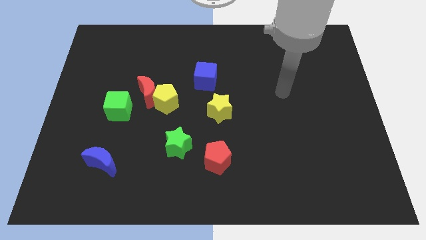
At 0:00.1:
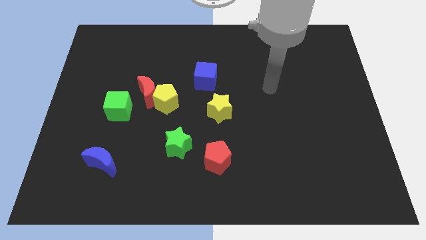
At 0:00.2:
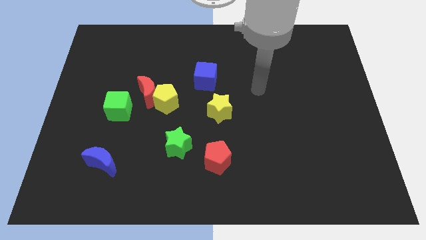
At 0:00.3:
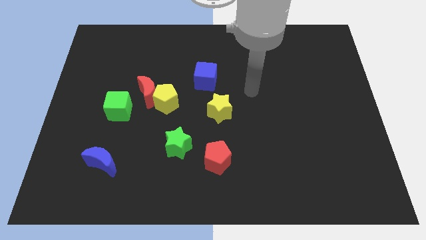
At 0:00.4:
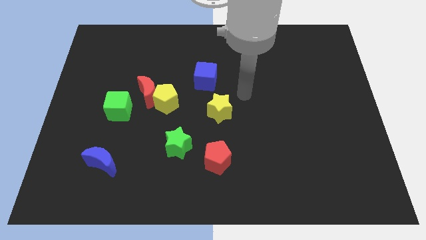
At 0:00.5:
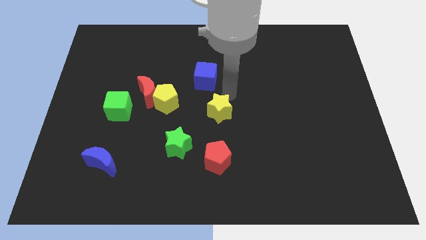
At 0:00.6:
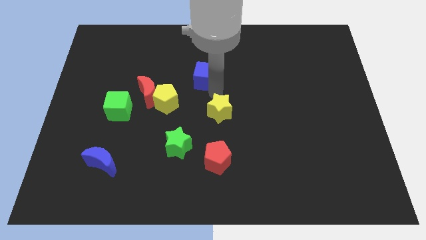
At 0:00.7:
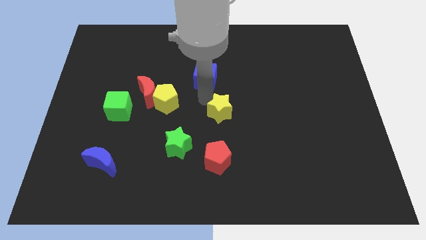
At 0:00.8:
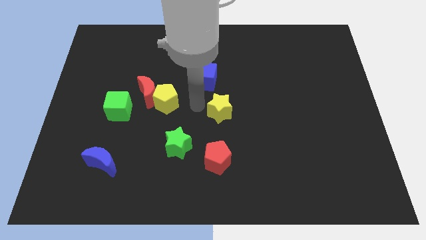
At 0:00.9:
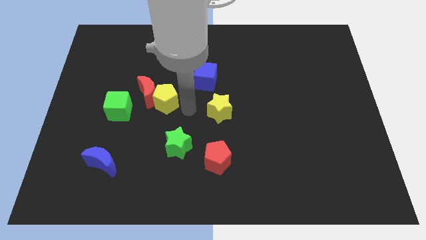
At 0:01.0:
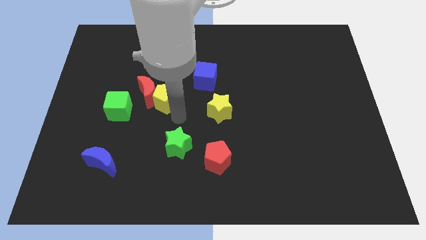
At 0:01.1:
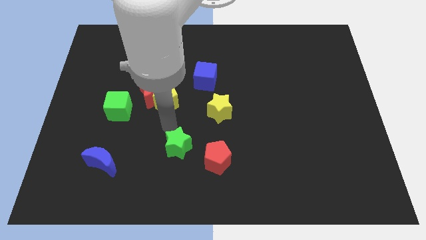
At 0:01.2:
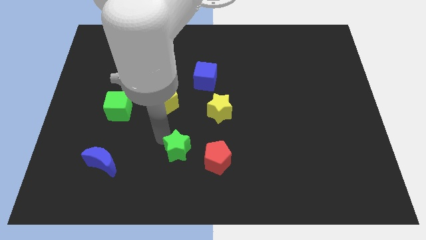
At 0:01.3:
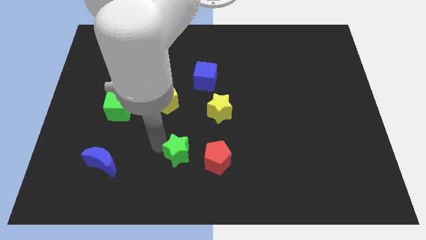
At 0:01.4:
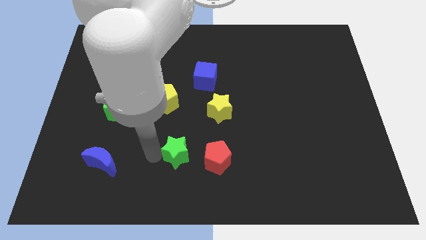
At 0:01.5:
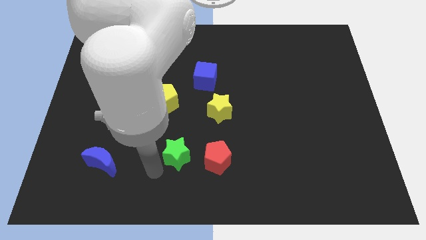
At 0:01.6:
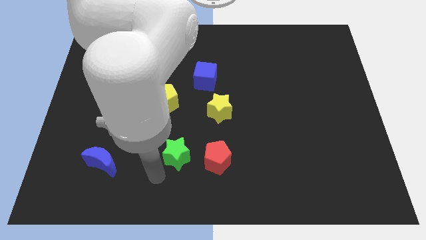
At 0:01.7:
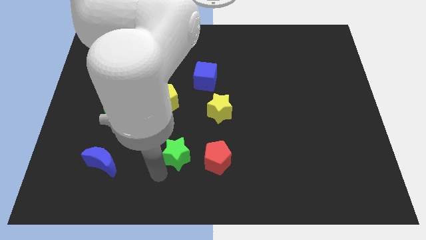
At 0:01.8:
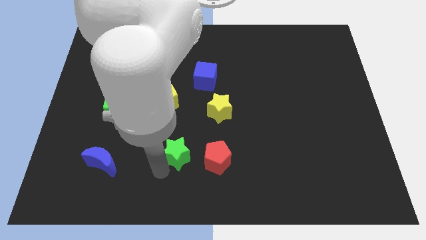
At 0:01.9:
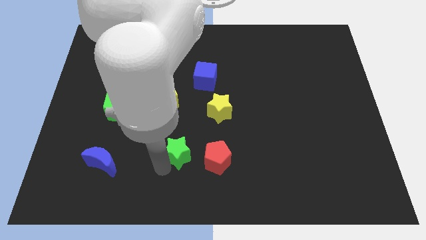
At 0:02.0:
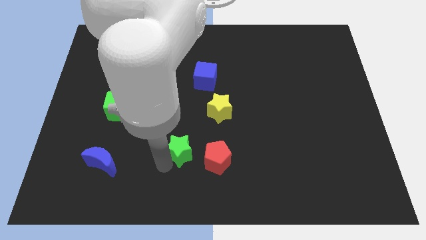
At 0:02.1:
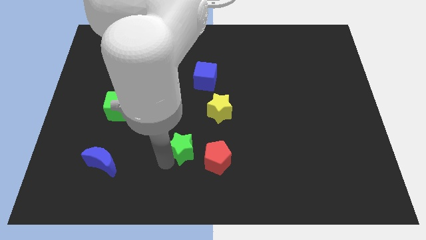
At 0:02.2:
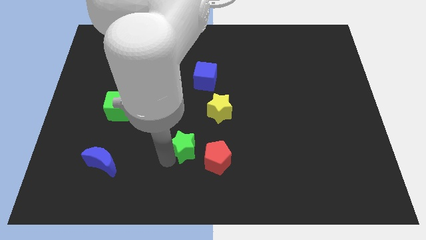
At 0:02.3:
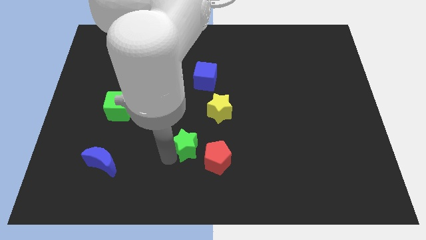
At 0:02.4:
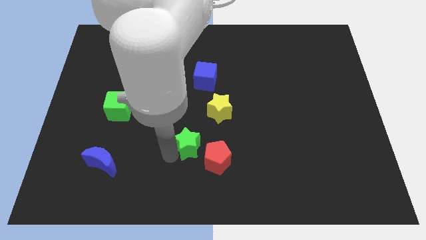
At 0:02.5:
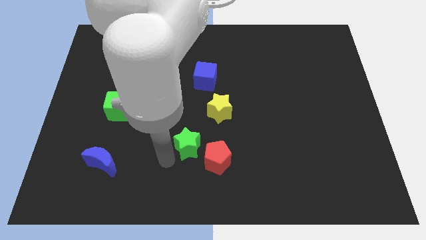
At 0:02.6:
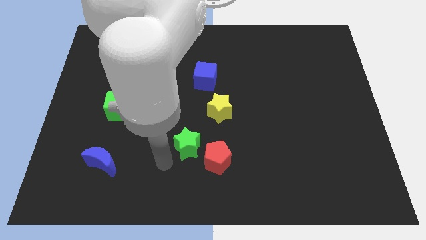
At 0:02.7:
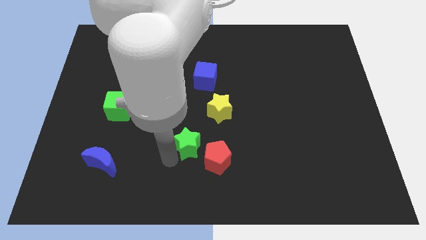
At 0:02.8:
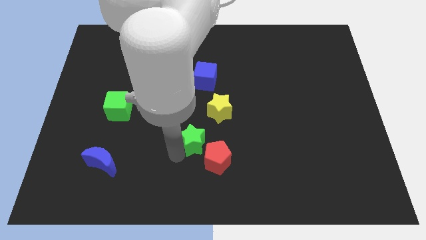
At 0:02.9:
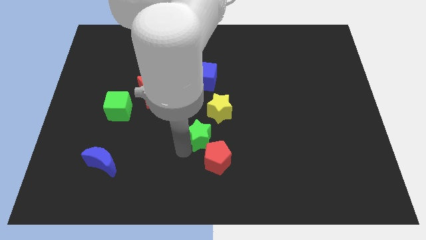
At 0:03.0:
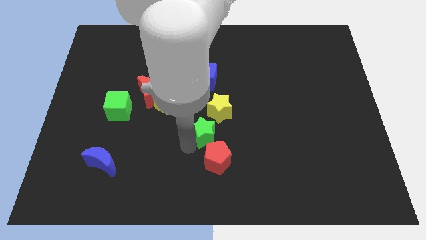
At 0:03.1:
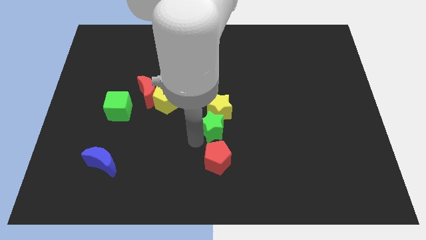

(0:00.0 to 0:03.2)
slightly slide the green star upwards and right

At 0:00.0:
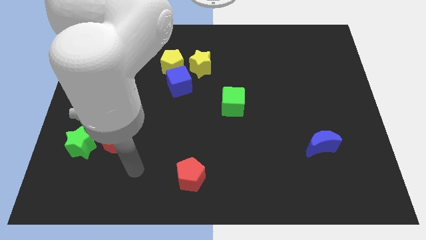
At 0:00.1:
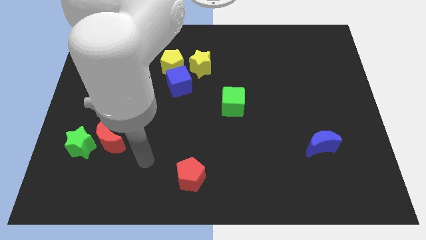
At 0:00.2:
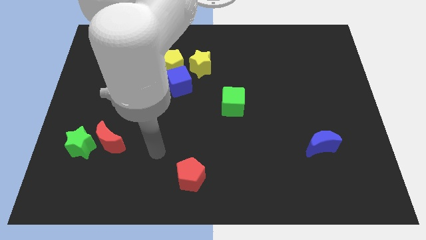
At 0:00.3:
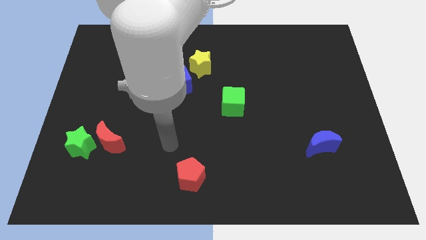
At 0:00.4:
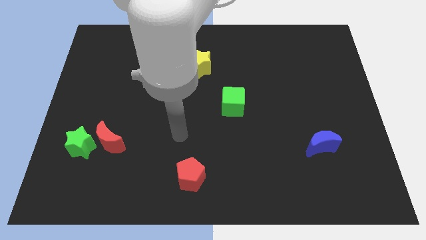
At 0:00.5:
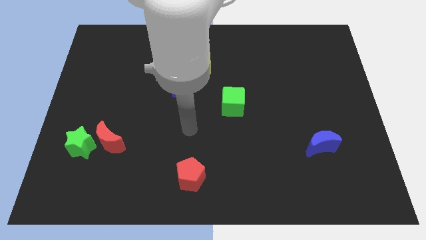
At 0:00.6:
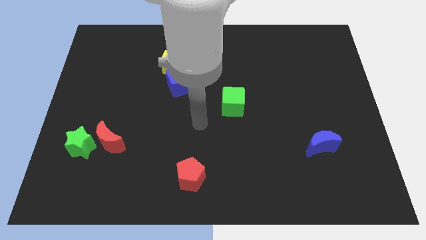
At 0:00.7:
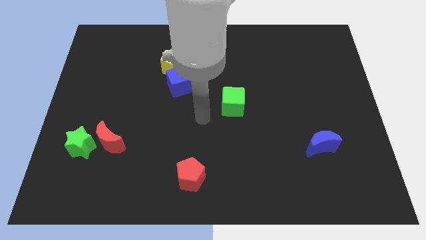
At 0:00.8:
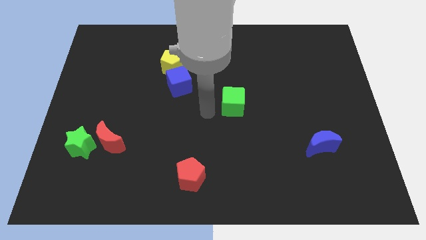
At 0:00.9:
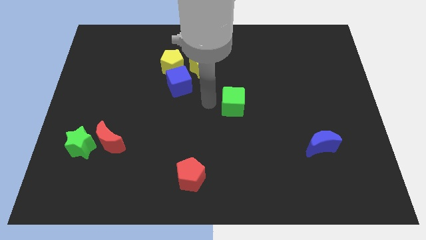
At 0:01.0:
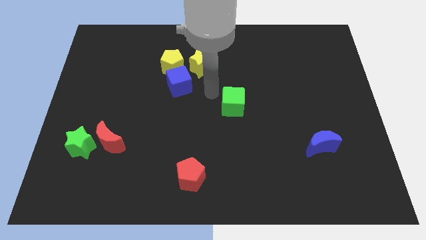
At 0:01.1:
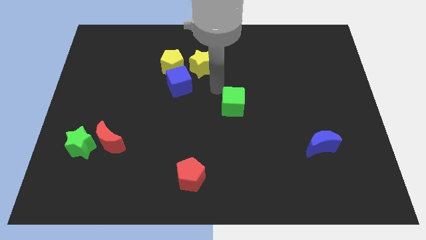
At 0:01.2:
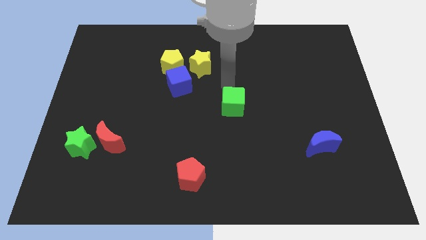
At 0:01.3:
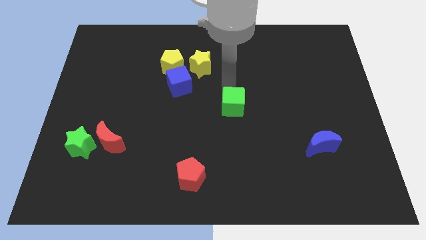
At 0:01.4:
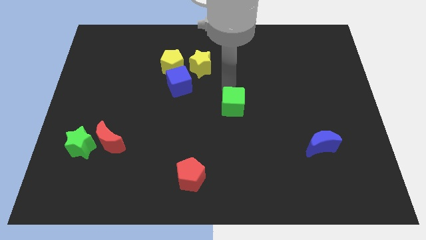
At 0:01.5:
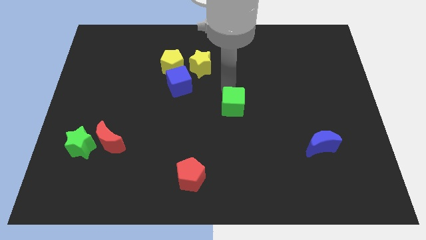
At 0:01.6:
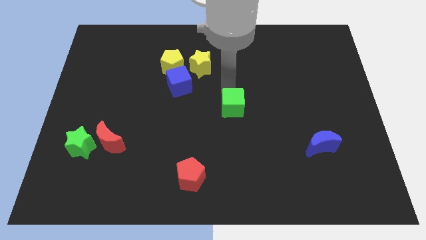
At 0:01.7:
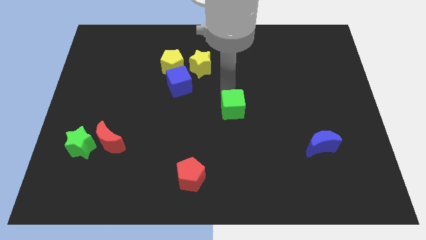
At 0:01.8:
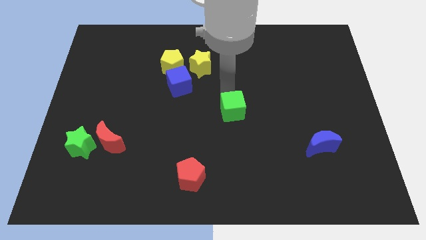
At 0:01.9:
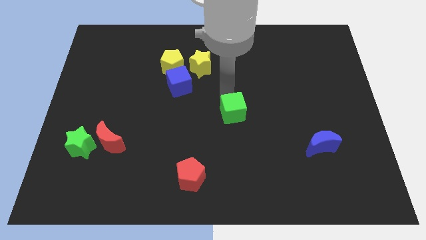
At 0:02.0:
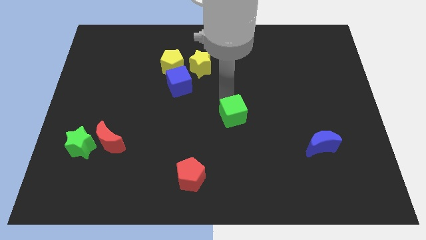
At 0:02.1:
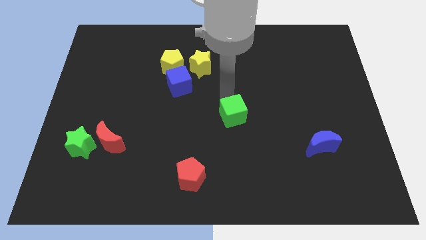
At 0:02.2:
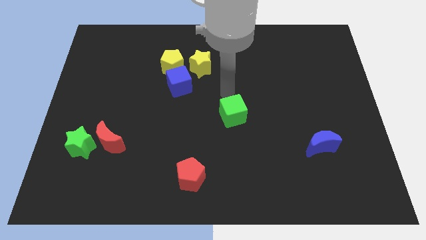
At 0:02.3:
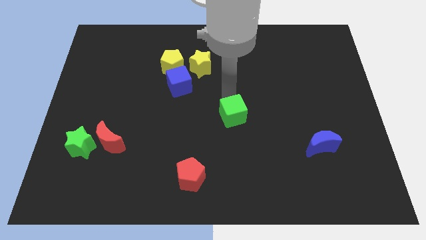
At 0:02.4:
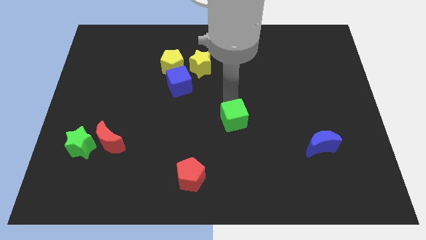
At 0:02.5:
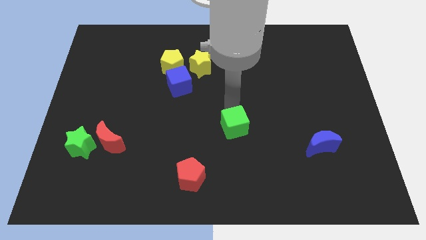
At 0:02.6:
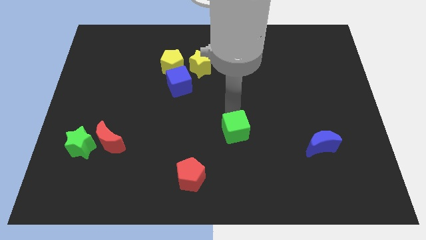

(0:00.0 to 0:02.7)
slide the green cube somewhat down

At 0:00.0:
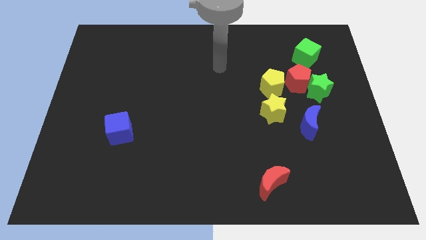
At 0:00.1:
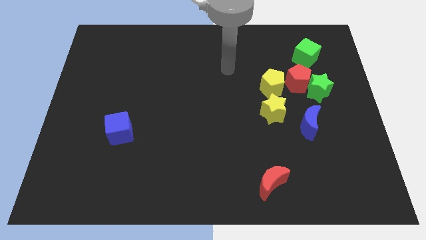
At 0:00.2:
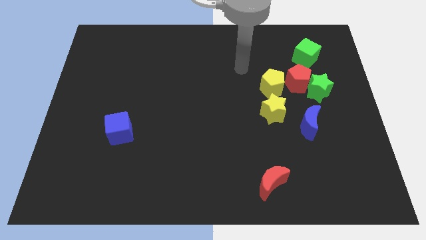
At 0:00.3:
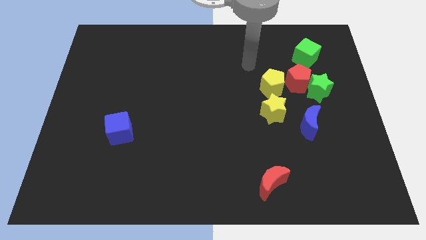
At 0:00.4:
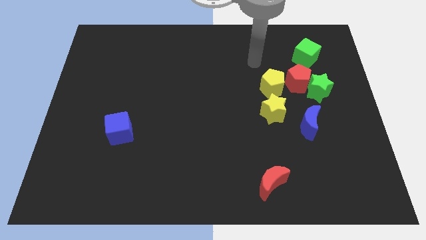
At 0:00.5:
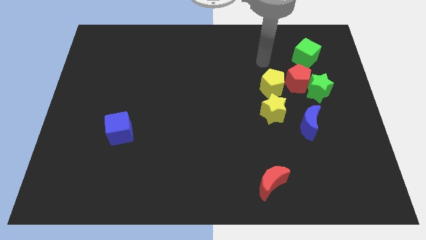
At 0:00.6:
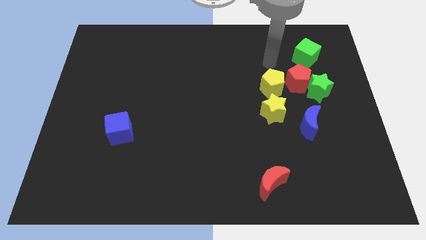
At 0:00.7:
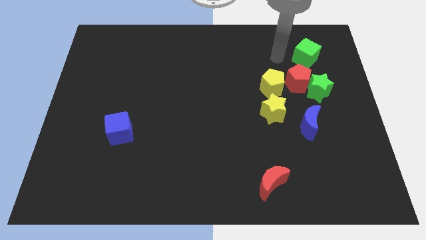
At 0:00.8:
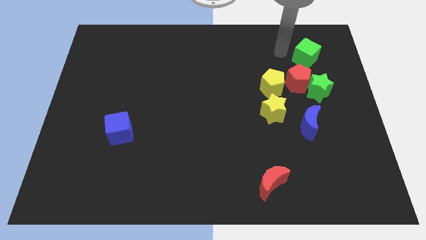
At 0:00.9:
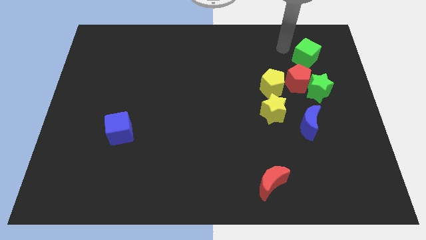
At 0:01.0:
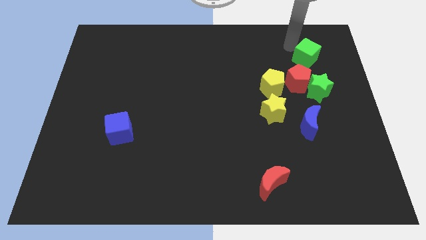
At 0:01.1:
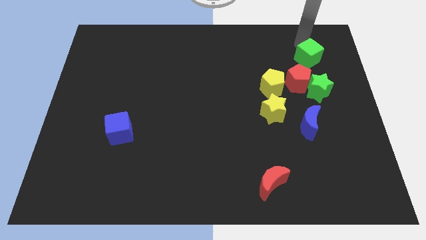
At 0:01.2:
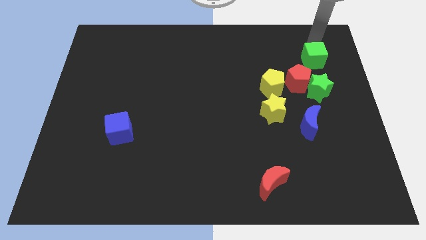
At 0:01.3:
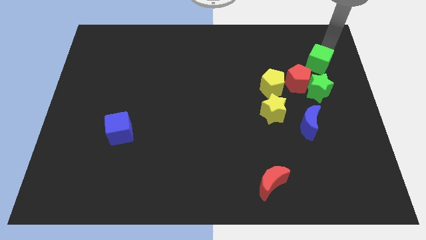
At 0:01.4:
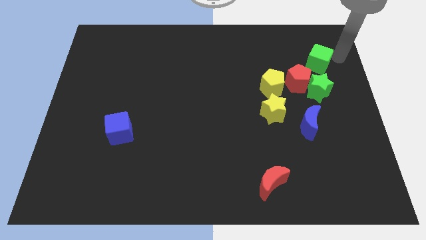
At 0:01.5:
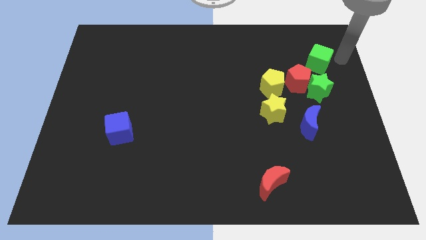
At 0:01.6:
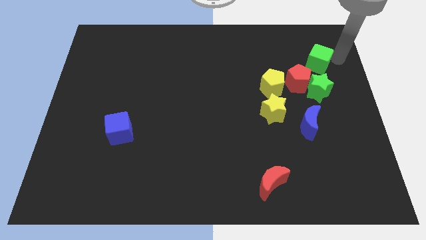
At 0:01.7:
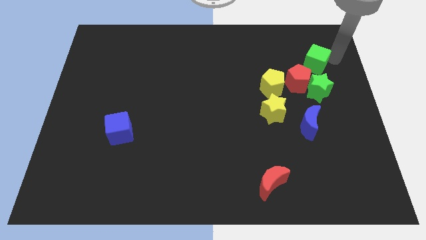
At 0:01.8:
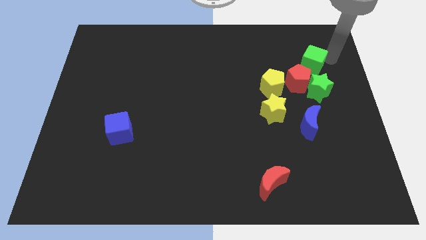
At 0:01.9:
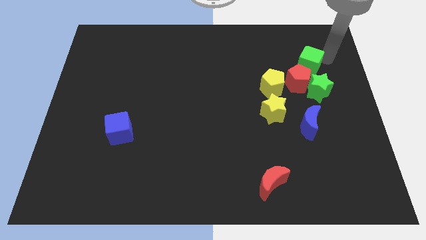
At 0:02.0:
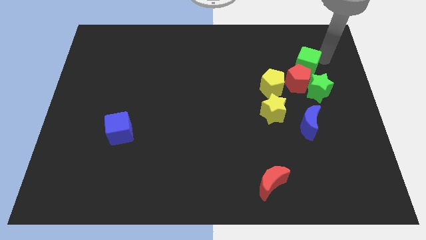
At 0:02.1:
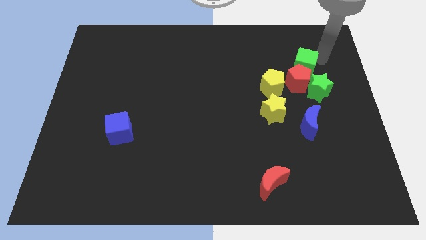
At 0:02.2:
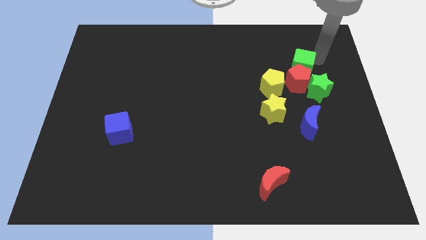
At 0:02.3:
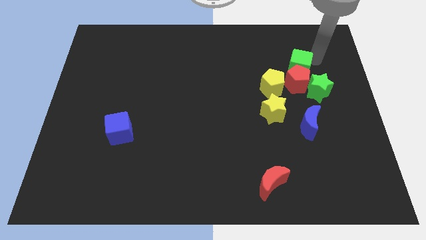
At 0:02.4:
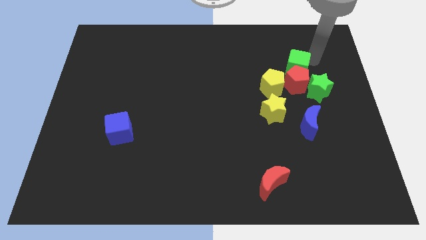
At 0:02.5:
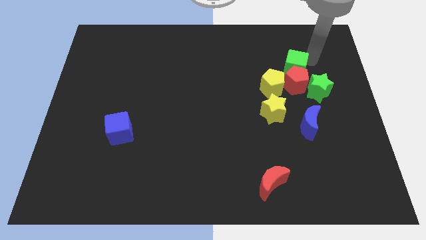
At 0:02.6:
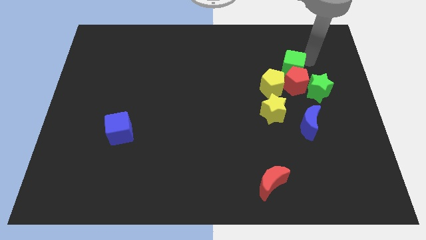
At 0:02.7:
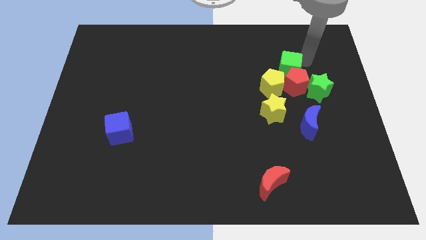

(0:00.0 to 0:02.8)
move the green cube a little down and left diagonally
